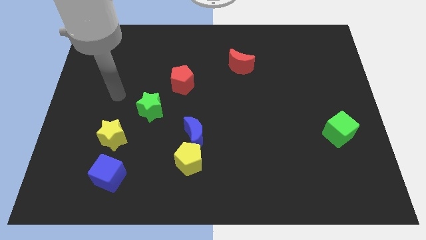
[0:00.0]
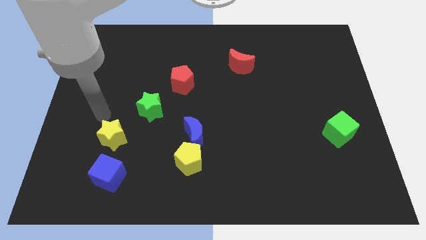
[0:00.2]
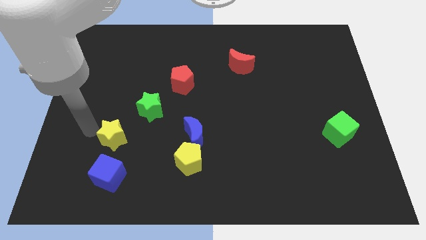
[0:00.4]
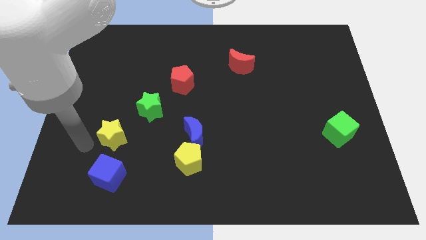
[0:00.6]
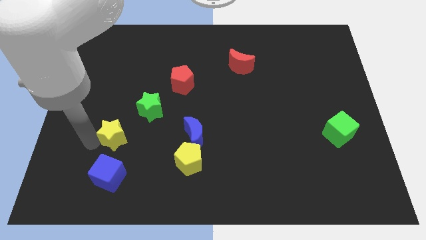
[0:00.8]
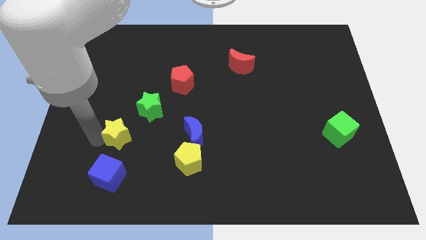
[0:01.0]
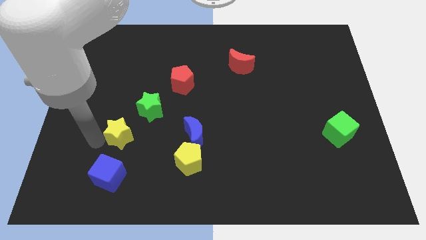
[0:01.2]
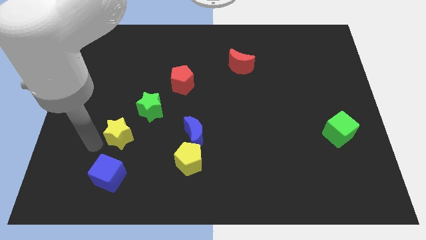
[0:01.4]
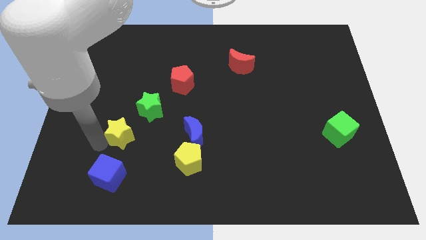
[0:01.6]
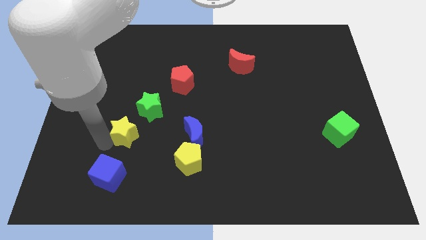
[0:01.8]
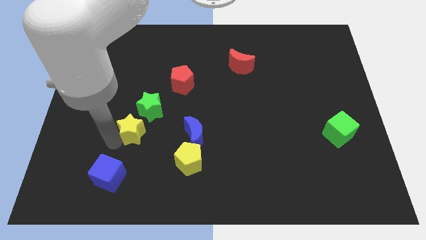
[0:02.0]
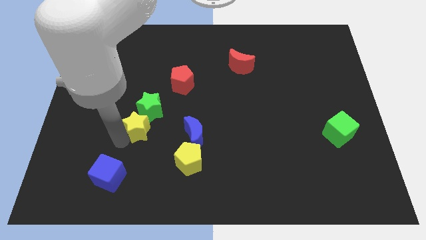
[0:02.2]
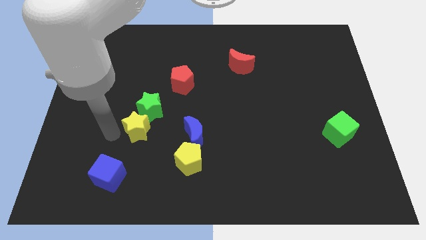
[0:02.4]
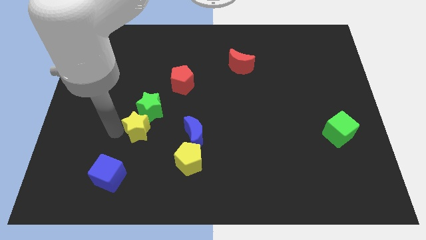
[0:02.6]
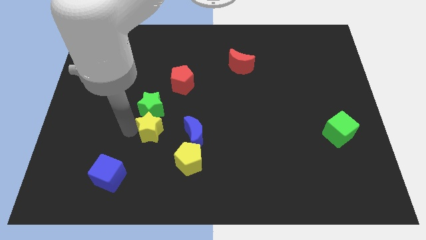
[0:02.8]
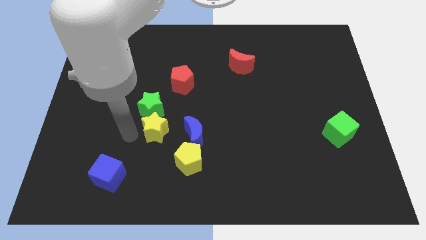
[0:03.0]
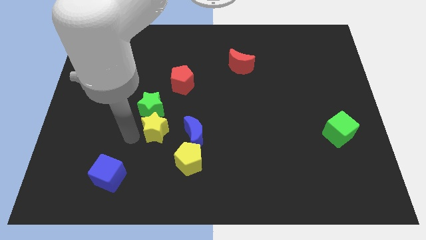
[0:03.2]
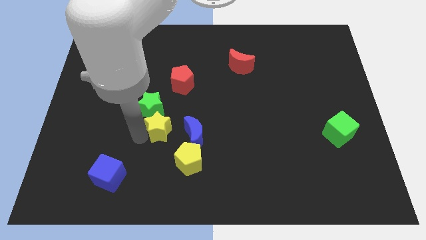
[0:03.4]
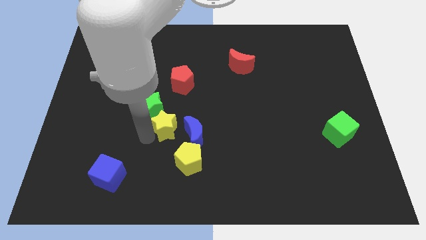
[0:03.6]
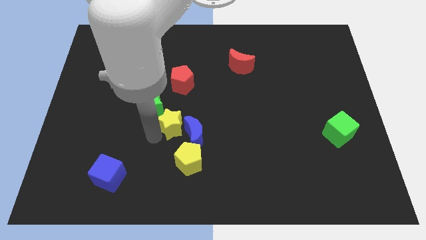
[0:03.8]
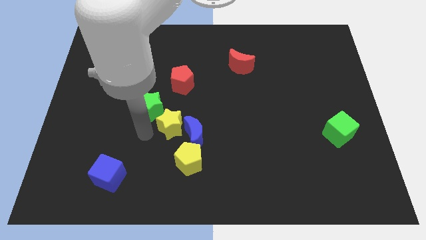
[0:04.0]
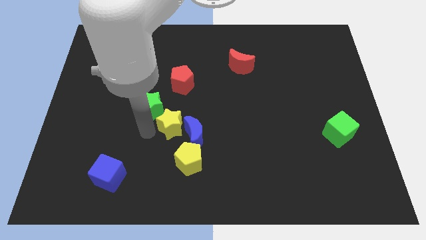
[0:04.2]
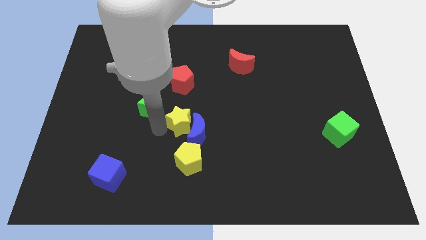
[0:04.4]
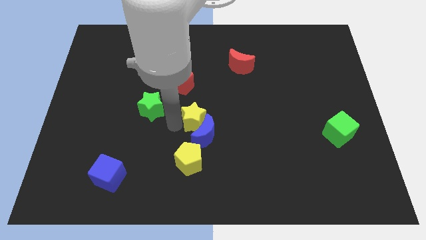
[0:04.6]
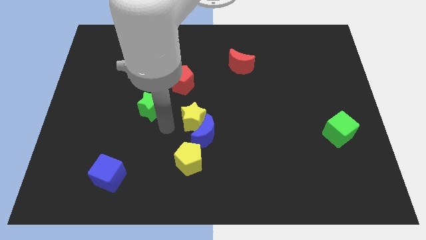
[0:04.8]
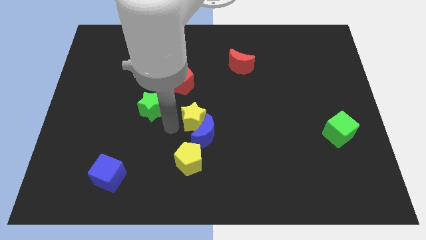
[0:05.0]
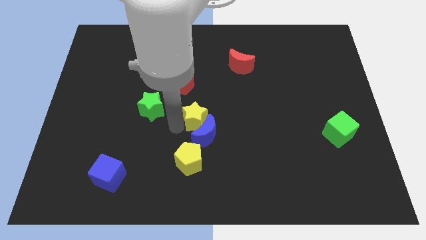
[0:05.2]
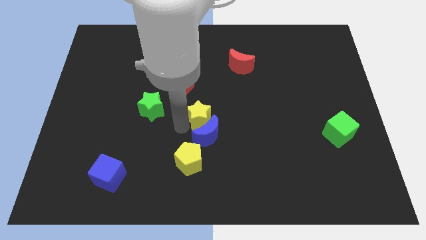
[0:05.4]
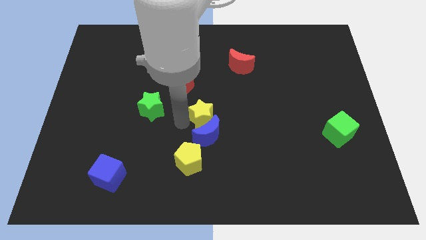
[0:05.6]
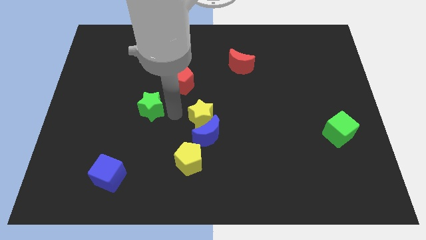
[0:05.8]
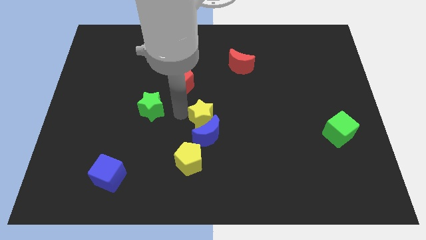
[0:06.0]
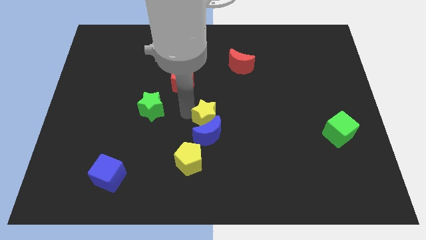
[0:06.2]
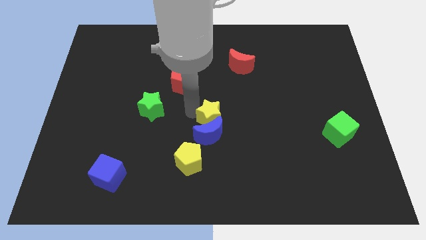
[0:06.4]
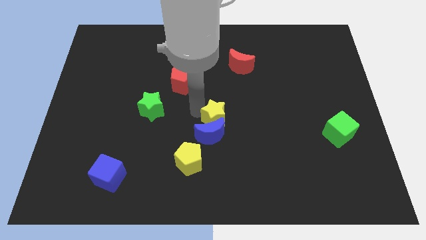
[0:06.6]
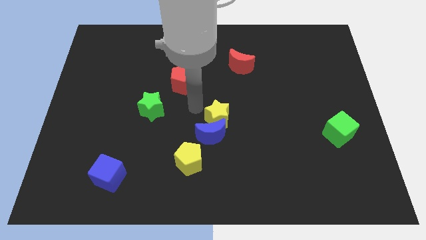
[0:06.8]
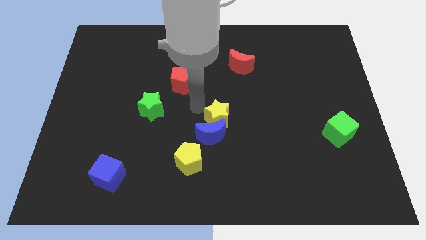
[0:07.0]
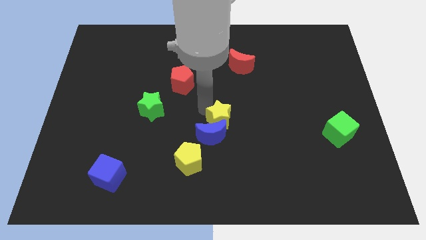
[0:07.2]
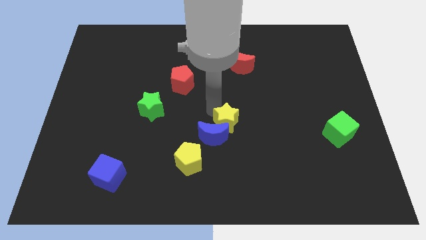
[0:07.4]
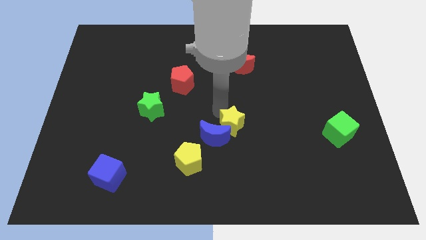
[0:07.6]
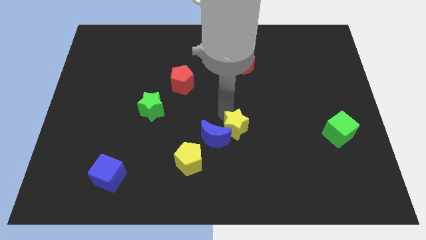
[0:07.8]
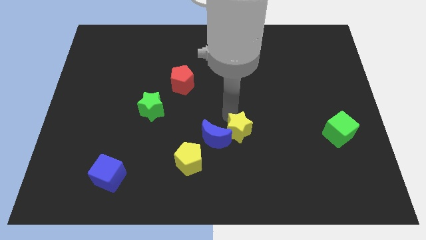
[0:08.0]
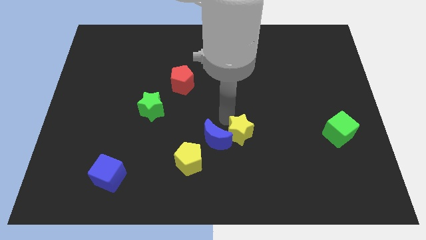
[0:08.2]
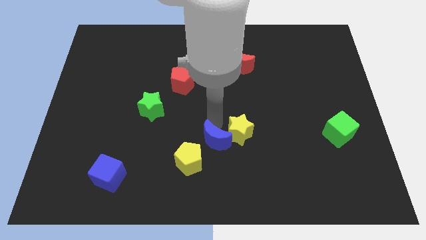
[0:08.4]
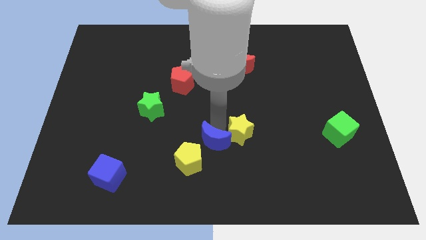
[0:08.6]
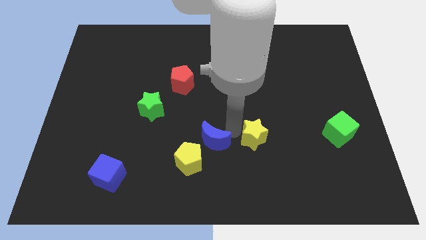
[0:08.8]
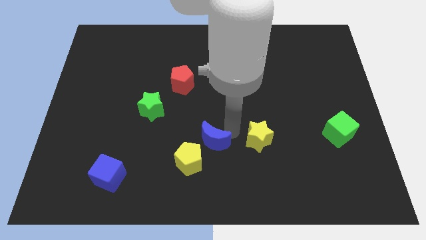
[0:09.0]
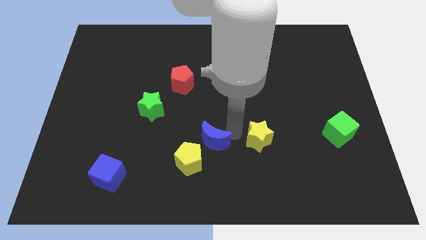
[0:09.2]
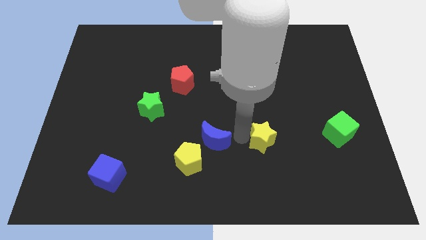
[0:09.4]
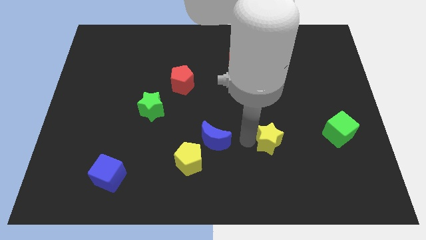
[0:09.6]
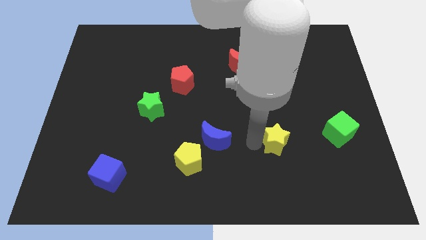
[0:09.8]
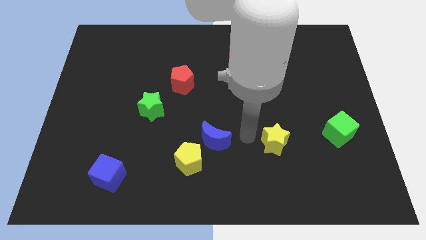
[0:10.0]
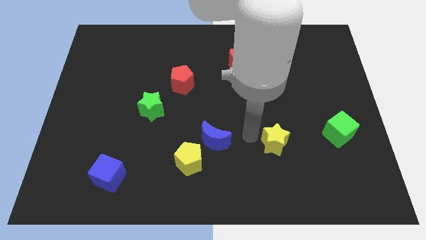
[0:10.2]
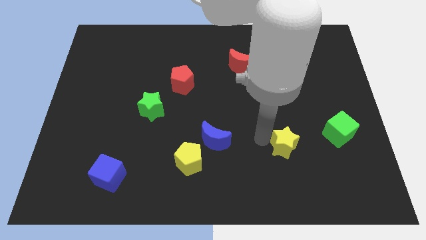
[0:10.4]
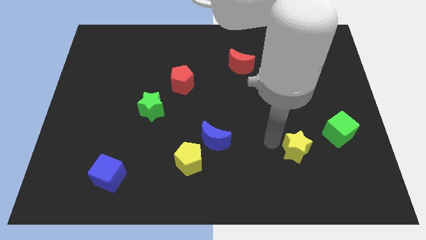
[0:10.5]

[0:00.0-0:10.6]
push the yellow star diagonally down and to the left of the green cube

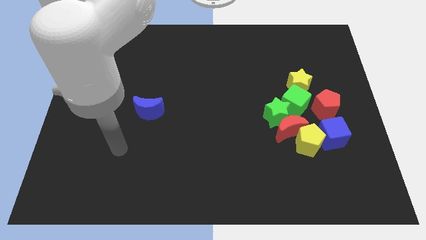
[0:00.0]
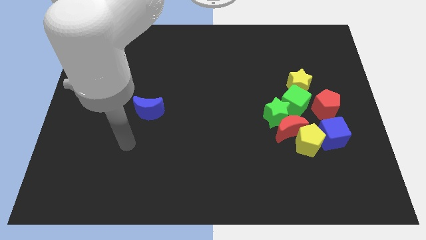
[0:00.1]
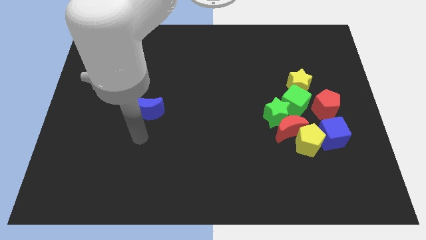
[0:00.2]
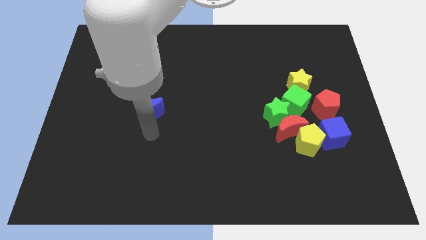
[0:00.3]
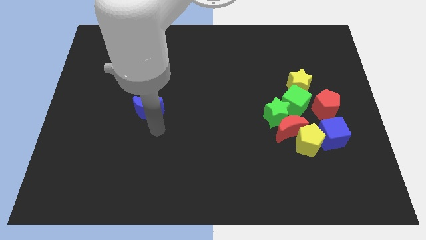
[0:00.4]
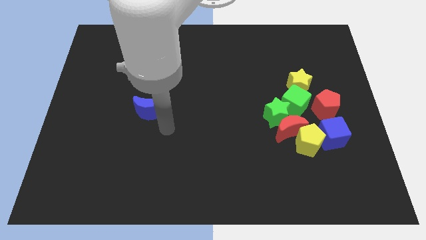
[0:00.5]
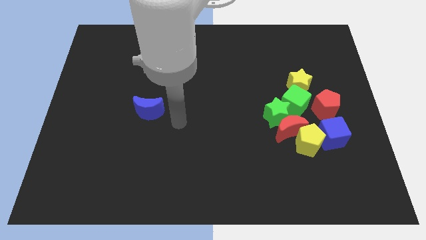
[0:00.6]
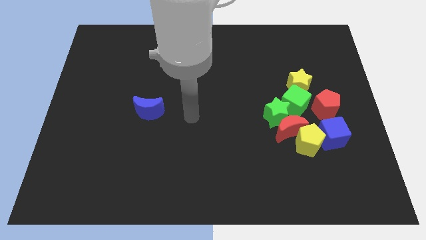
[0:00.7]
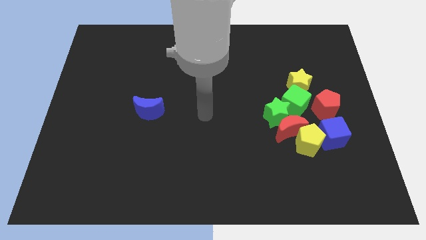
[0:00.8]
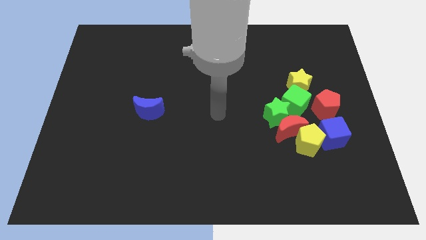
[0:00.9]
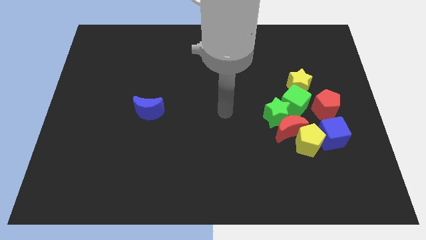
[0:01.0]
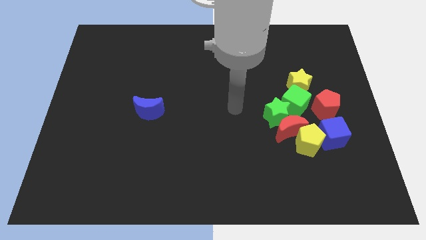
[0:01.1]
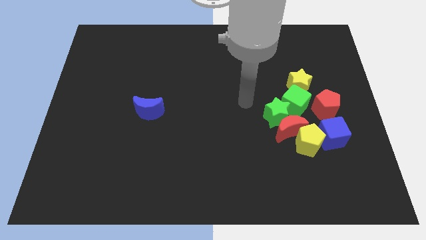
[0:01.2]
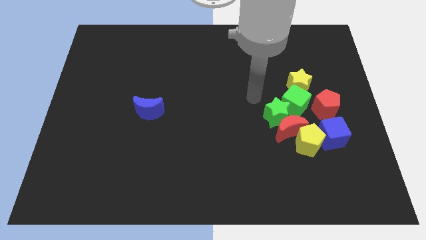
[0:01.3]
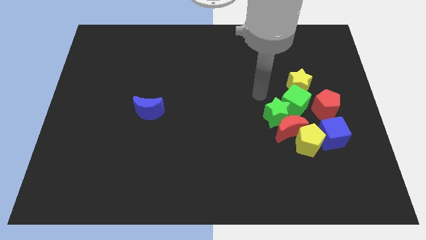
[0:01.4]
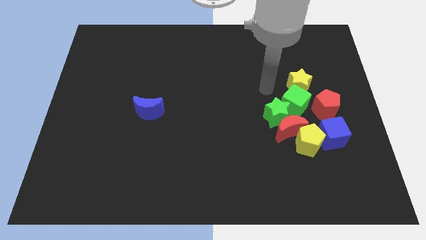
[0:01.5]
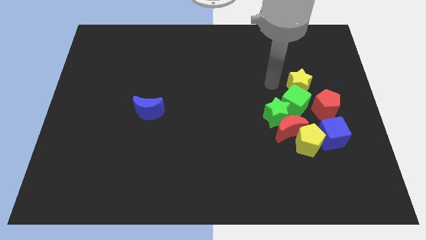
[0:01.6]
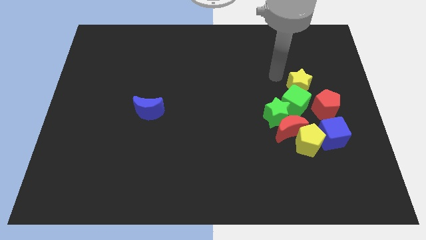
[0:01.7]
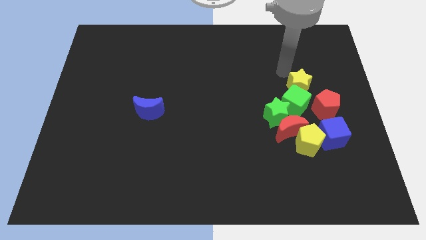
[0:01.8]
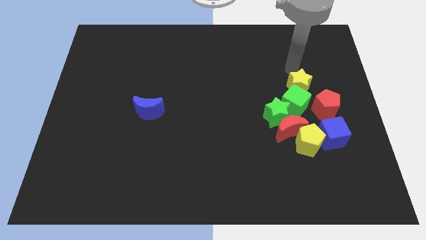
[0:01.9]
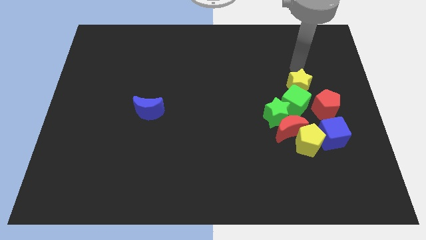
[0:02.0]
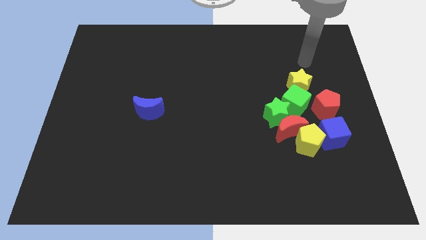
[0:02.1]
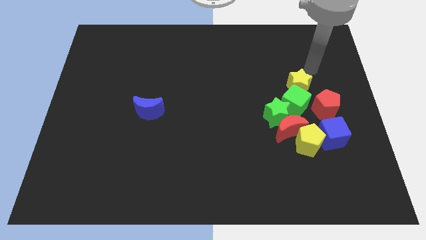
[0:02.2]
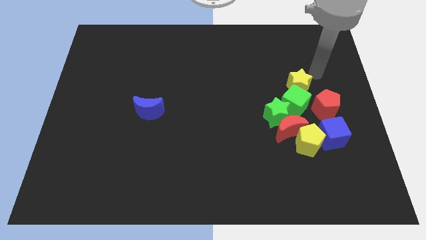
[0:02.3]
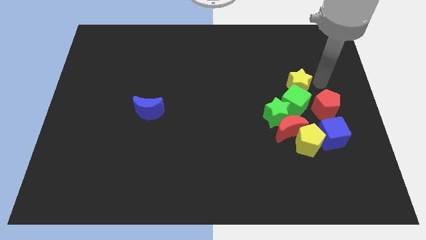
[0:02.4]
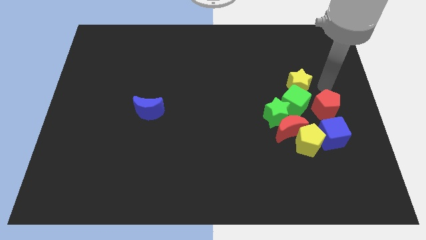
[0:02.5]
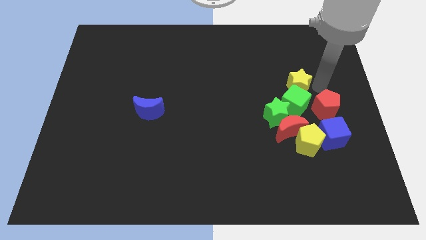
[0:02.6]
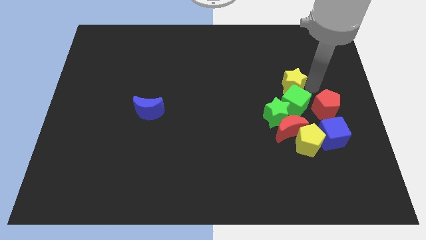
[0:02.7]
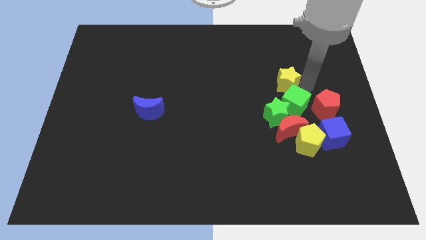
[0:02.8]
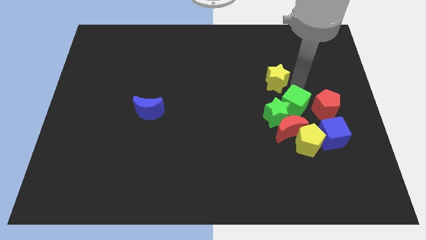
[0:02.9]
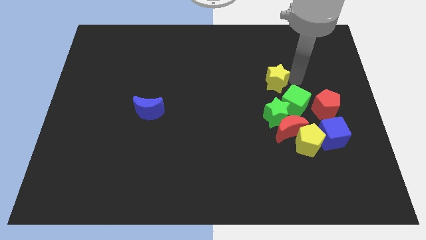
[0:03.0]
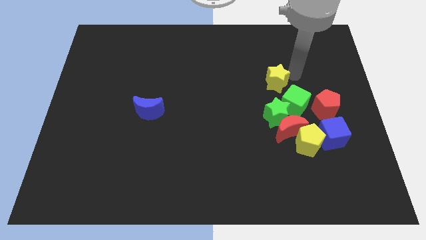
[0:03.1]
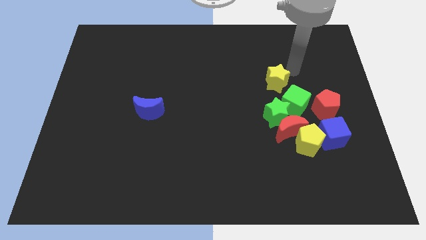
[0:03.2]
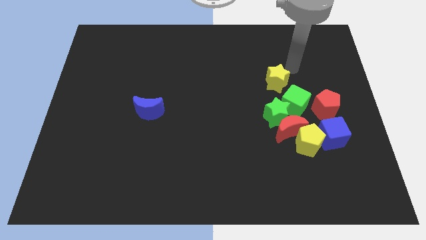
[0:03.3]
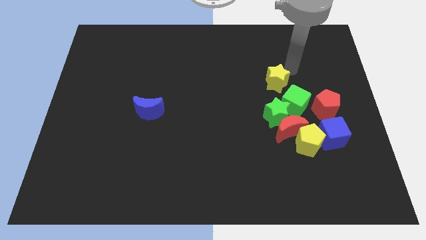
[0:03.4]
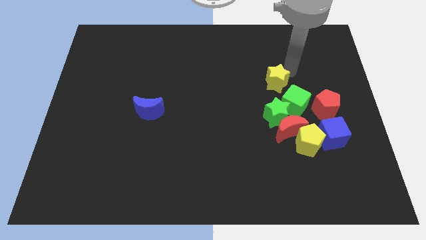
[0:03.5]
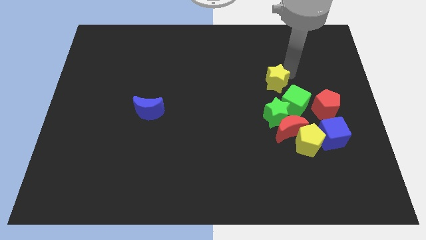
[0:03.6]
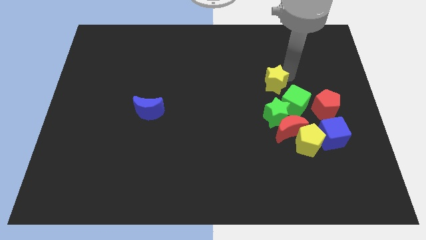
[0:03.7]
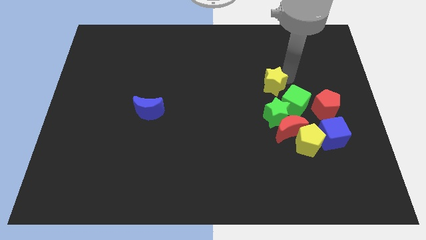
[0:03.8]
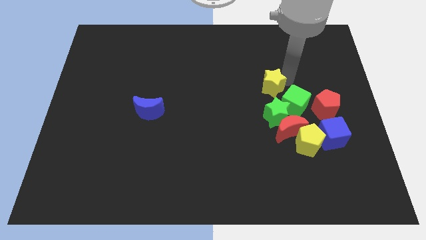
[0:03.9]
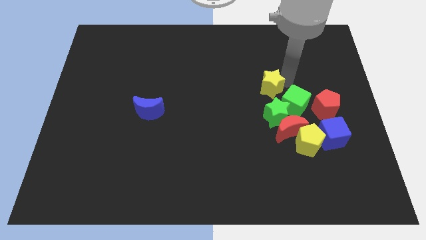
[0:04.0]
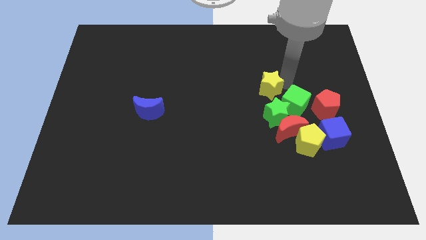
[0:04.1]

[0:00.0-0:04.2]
move the yellow star just left of the green cube
